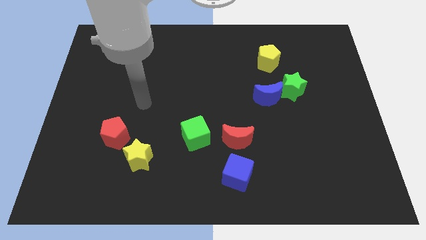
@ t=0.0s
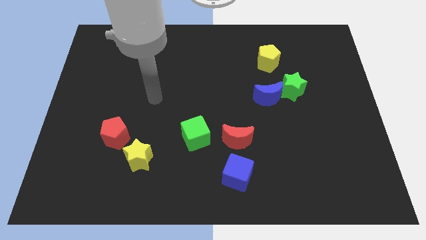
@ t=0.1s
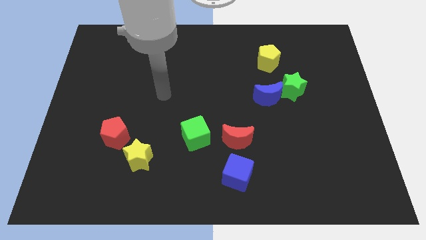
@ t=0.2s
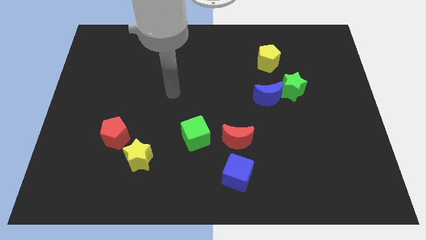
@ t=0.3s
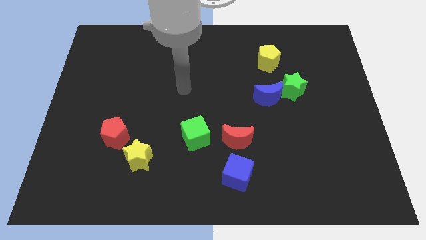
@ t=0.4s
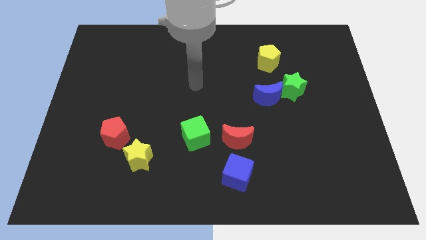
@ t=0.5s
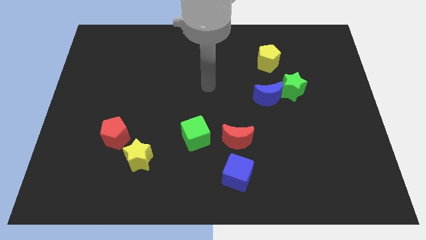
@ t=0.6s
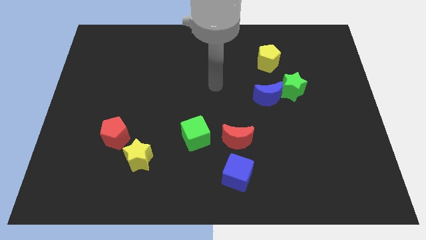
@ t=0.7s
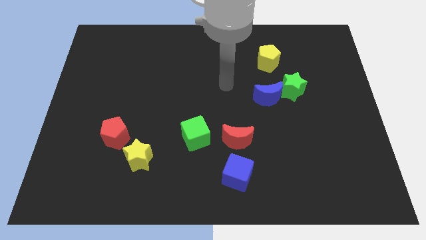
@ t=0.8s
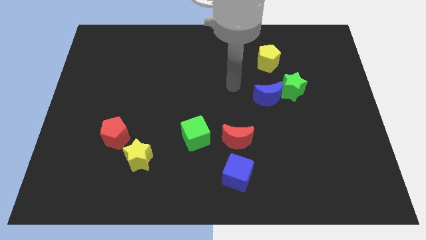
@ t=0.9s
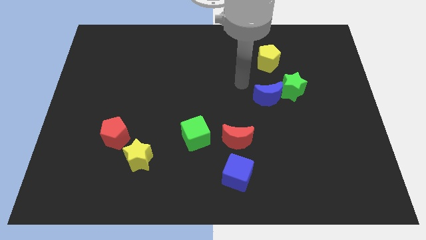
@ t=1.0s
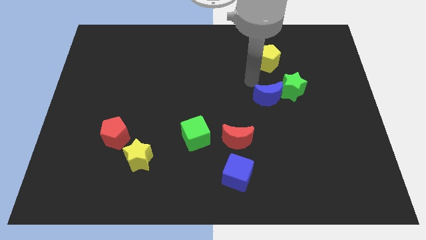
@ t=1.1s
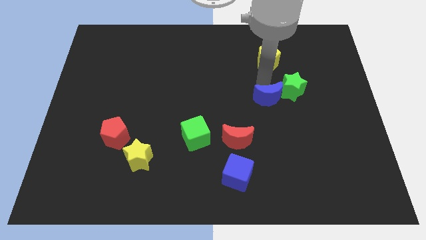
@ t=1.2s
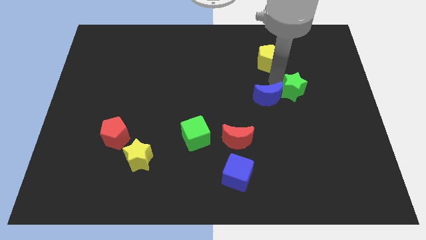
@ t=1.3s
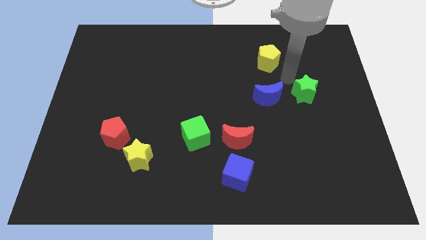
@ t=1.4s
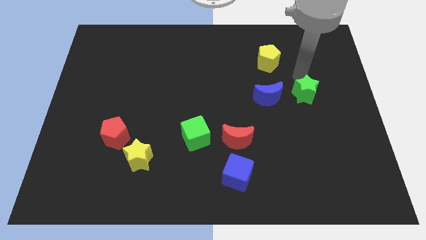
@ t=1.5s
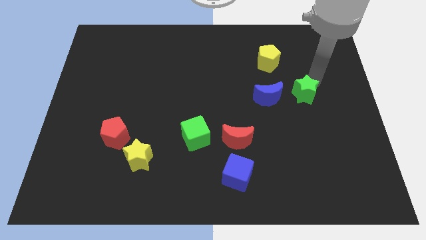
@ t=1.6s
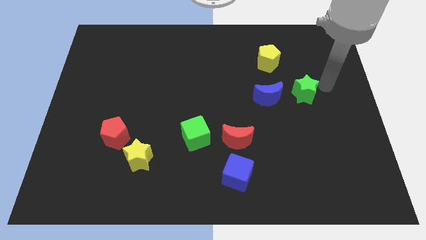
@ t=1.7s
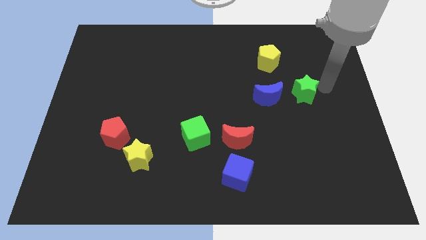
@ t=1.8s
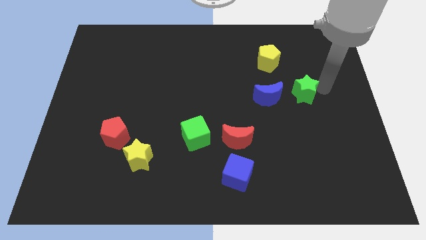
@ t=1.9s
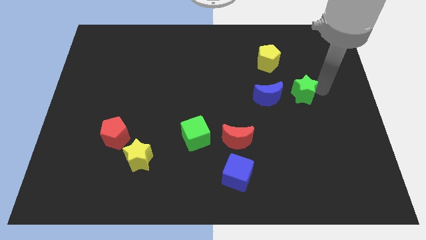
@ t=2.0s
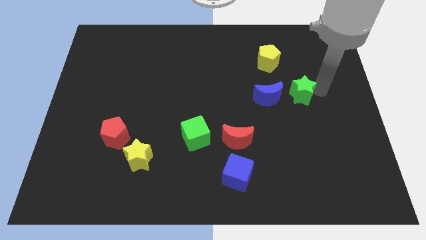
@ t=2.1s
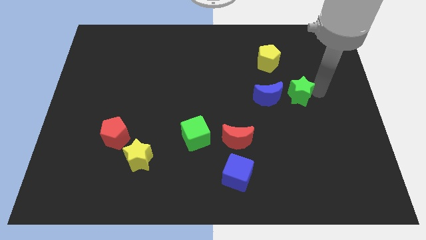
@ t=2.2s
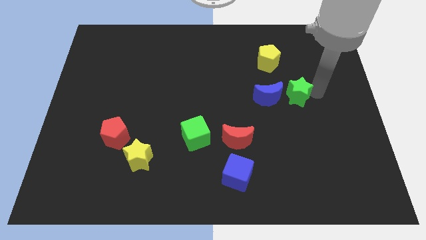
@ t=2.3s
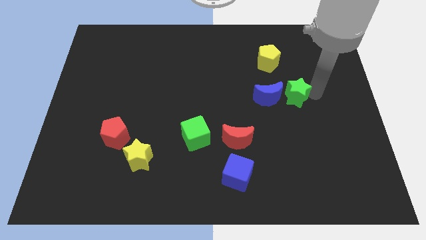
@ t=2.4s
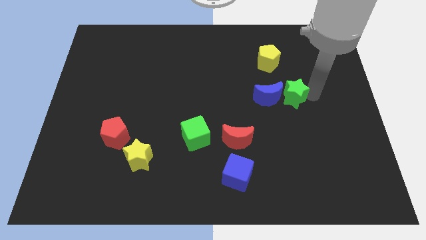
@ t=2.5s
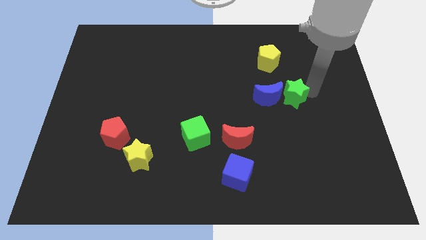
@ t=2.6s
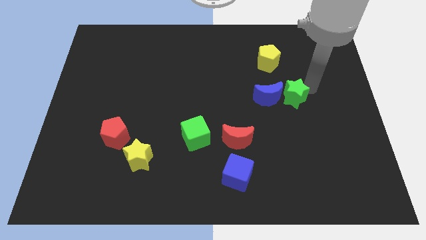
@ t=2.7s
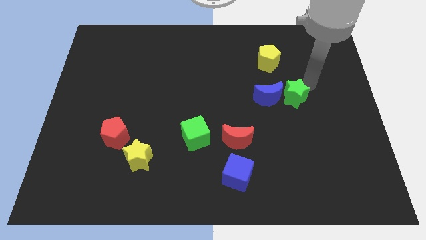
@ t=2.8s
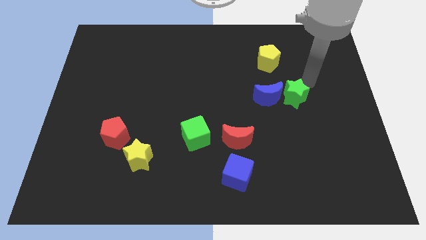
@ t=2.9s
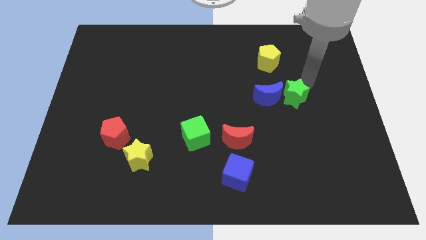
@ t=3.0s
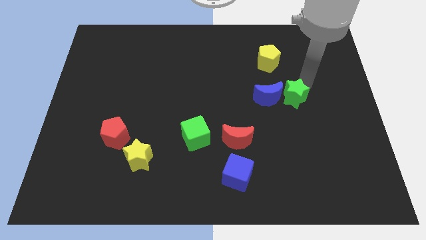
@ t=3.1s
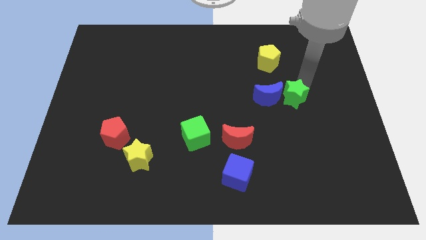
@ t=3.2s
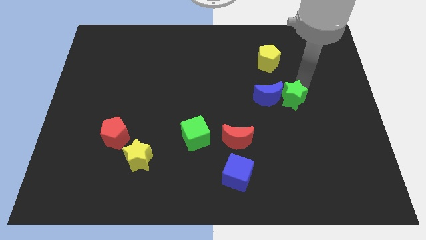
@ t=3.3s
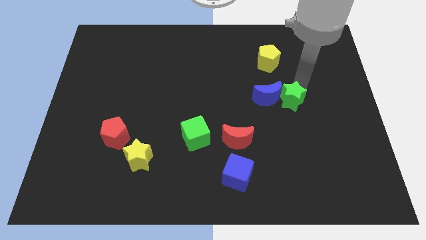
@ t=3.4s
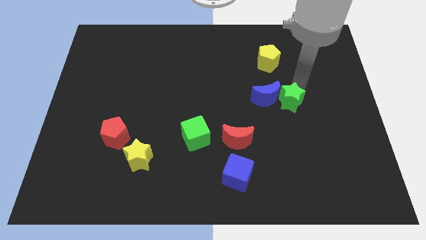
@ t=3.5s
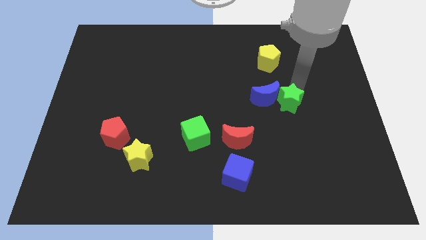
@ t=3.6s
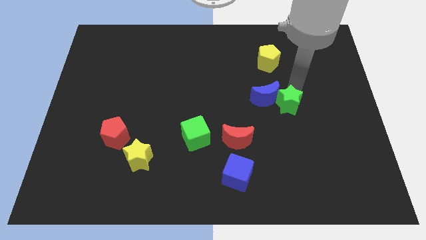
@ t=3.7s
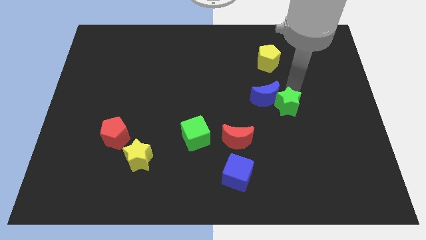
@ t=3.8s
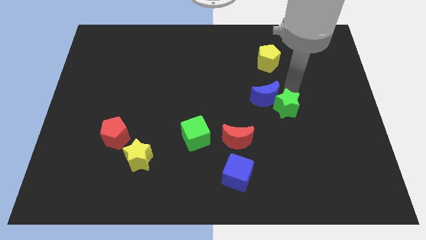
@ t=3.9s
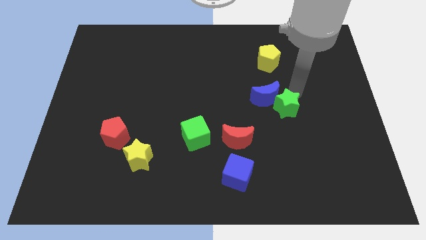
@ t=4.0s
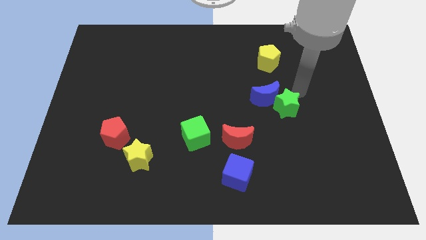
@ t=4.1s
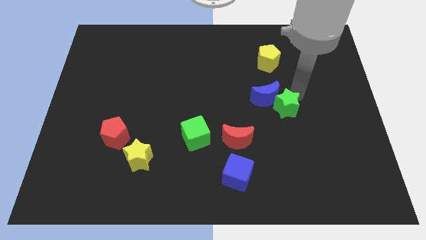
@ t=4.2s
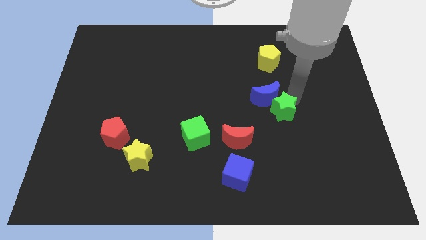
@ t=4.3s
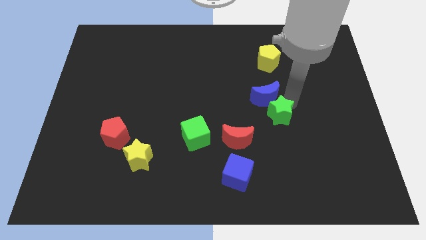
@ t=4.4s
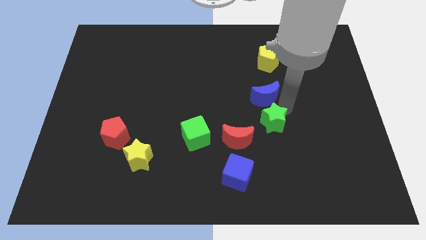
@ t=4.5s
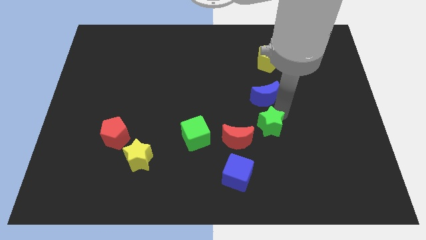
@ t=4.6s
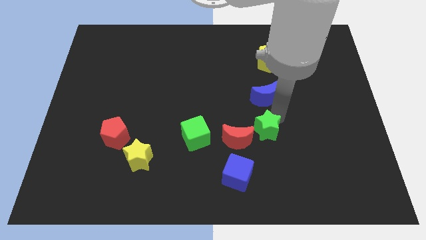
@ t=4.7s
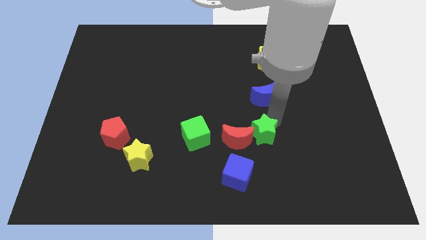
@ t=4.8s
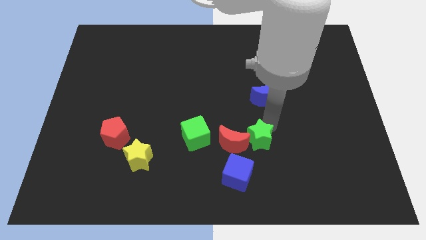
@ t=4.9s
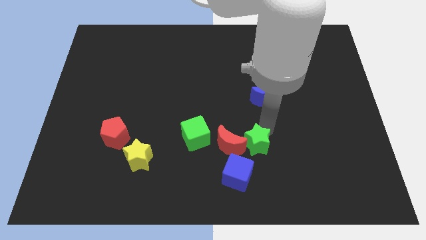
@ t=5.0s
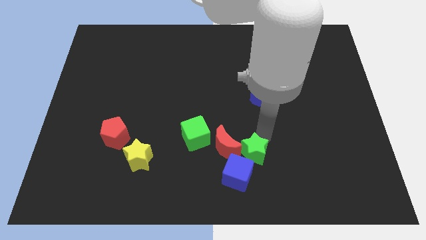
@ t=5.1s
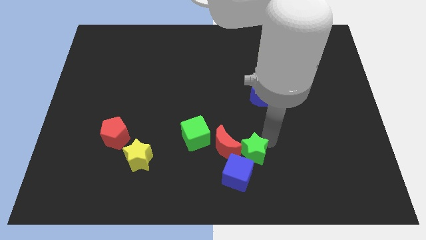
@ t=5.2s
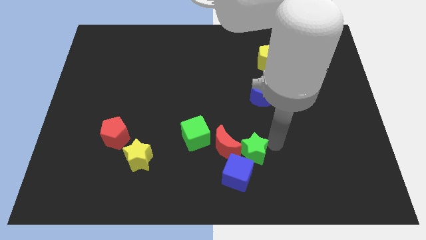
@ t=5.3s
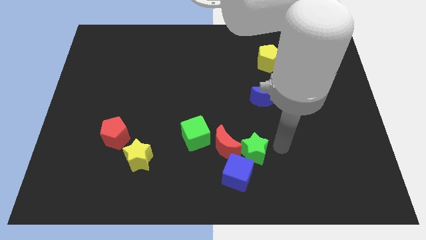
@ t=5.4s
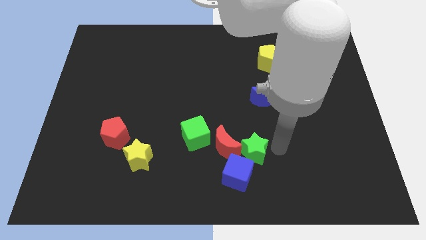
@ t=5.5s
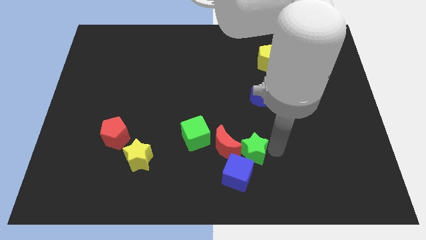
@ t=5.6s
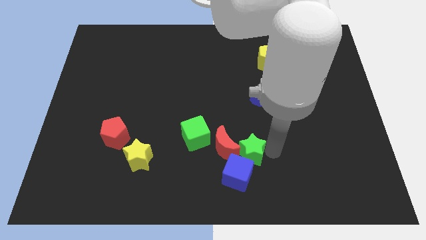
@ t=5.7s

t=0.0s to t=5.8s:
slide the green star down and left

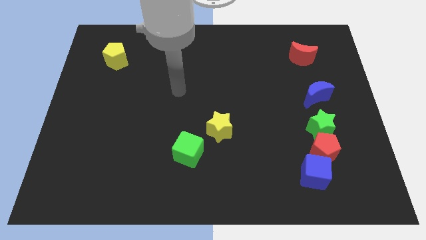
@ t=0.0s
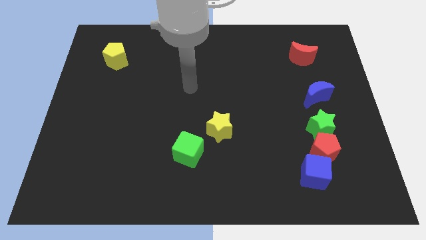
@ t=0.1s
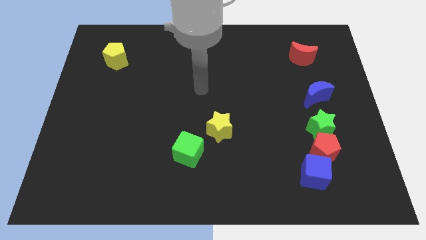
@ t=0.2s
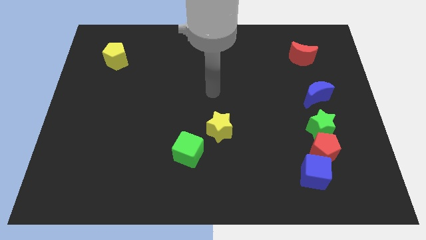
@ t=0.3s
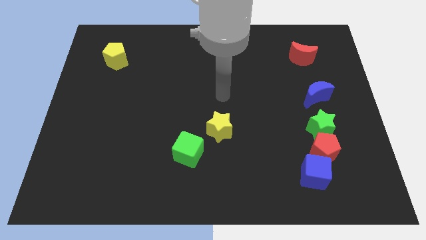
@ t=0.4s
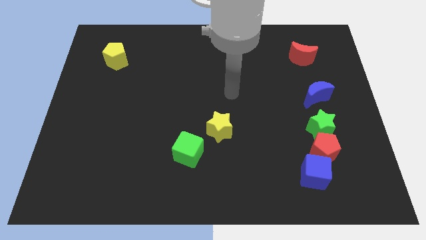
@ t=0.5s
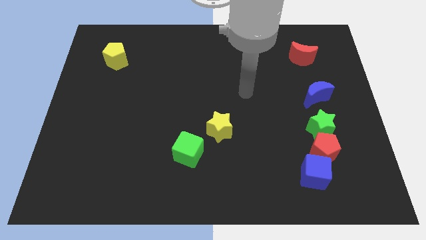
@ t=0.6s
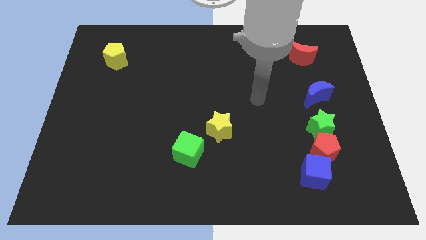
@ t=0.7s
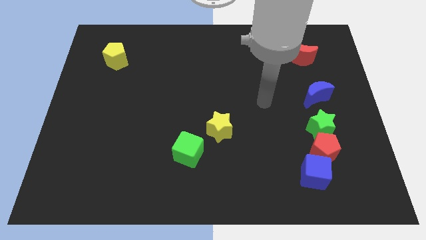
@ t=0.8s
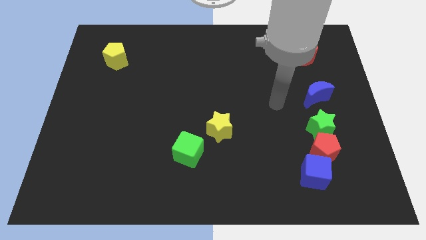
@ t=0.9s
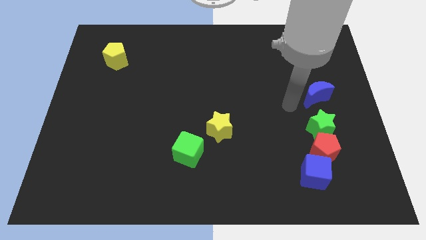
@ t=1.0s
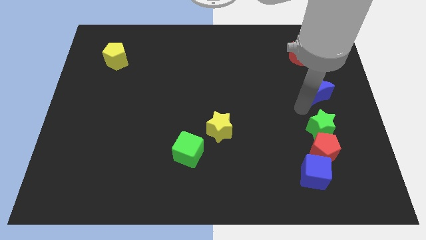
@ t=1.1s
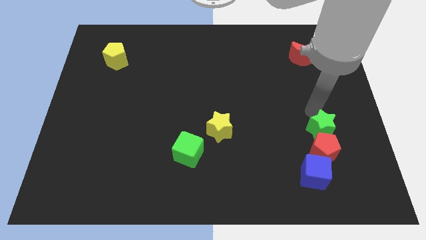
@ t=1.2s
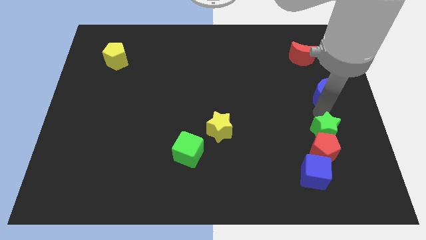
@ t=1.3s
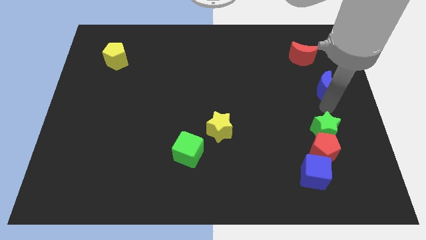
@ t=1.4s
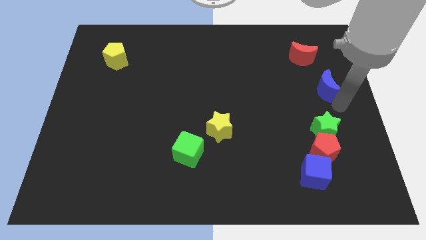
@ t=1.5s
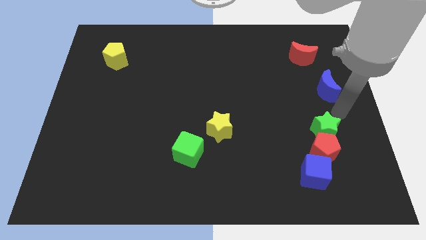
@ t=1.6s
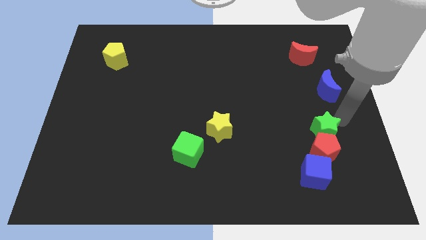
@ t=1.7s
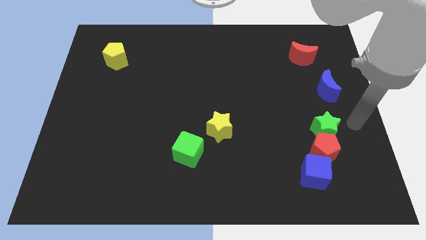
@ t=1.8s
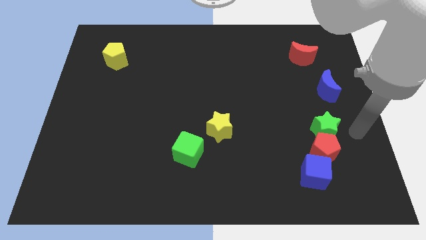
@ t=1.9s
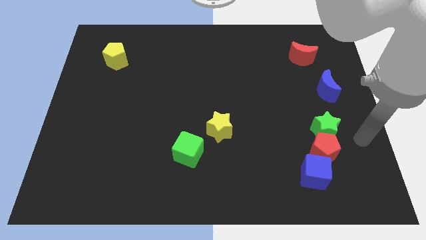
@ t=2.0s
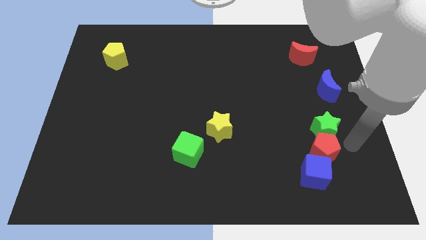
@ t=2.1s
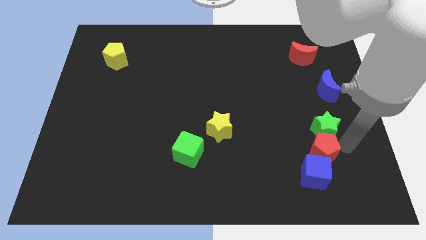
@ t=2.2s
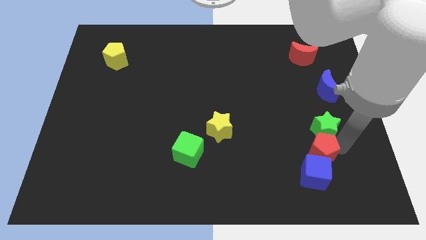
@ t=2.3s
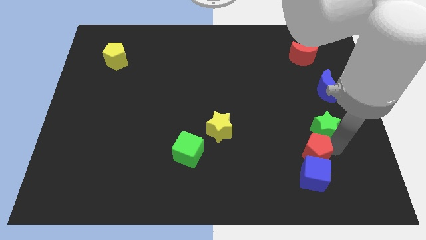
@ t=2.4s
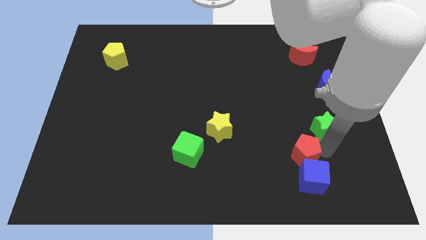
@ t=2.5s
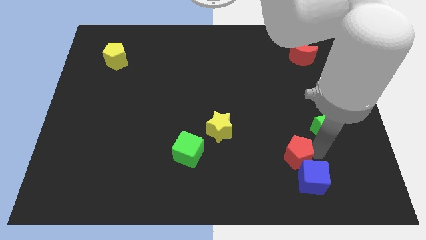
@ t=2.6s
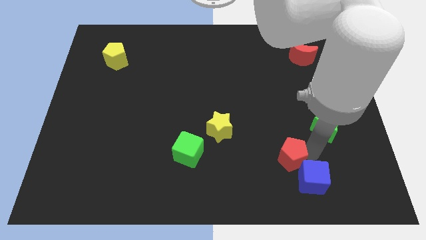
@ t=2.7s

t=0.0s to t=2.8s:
move the red pentagon left somewhat
